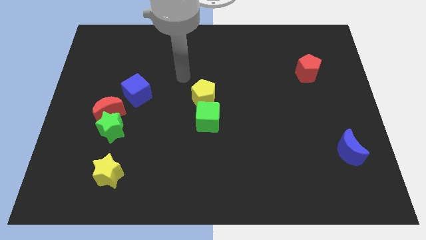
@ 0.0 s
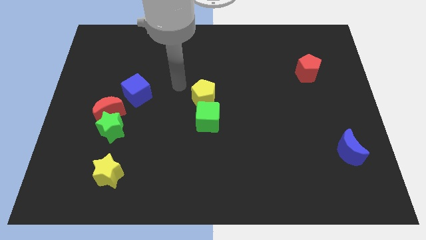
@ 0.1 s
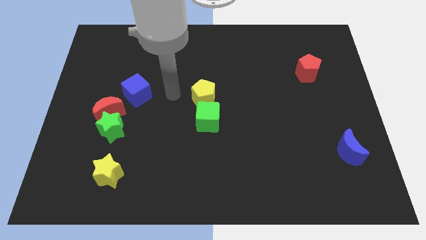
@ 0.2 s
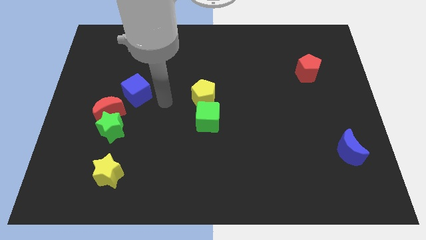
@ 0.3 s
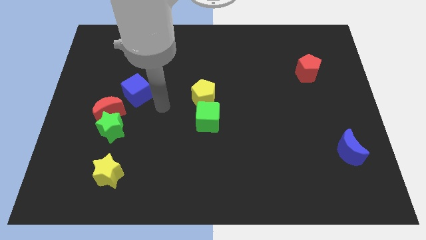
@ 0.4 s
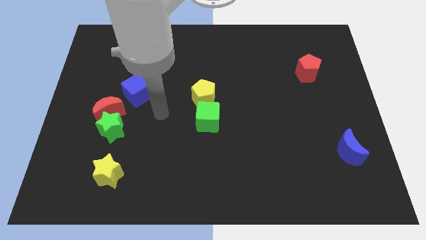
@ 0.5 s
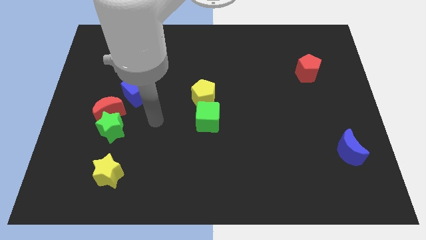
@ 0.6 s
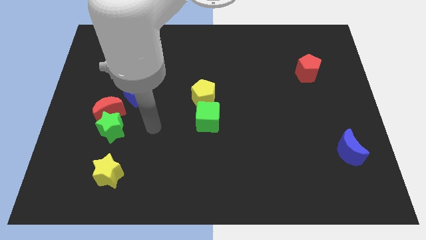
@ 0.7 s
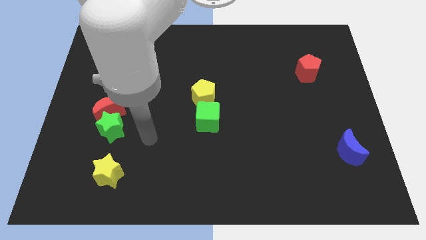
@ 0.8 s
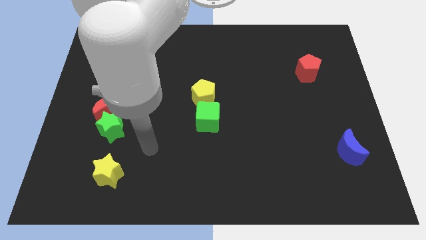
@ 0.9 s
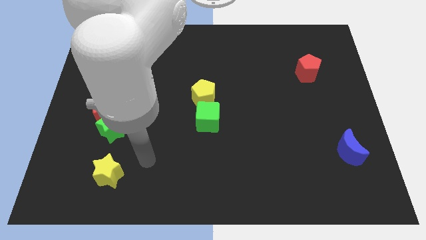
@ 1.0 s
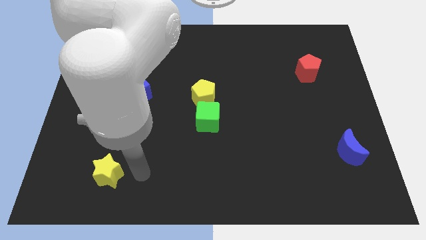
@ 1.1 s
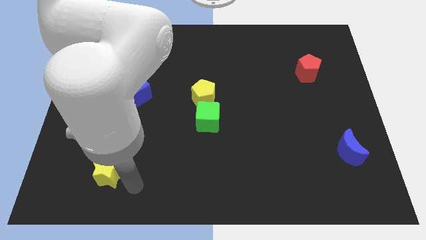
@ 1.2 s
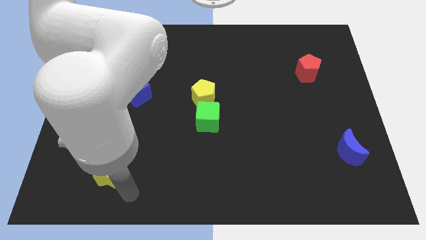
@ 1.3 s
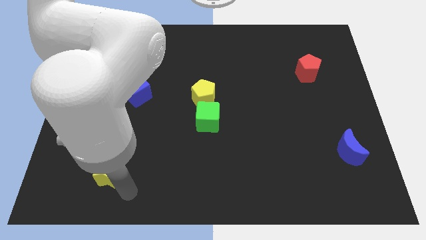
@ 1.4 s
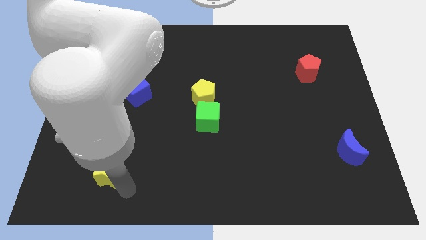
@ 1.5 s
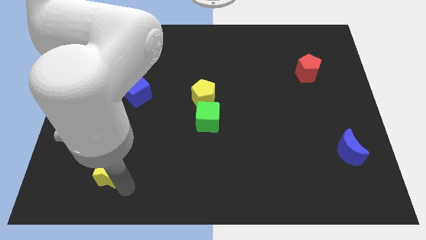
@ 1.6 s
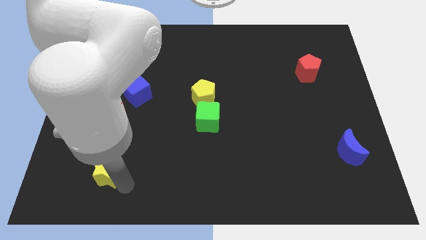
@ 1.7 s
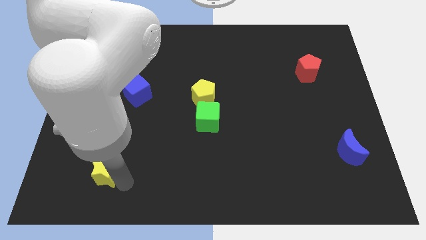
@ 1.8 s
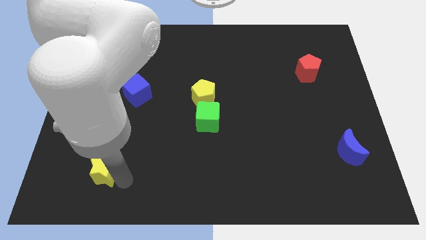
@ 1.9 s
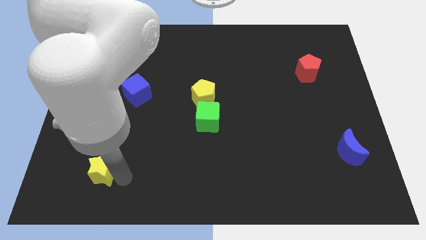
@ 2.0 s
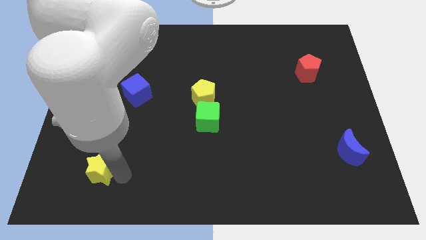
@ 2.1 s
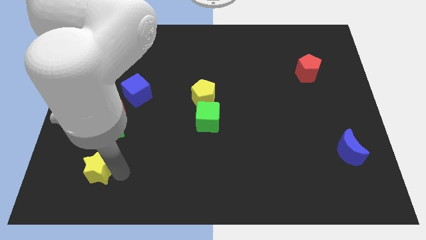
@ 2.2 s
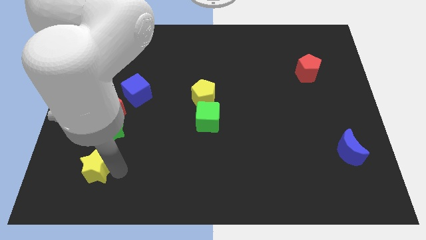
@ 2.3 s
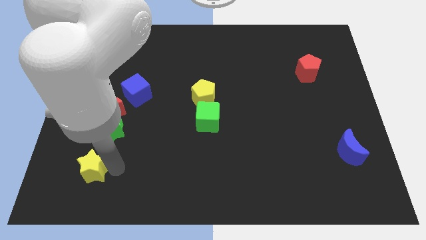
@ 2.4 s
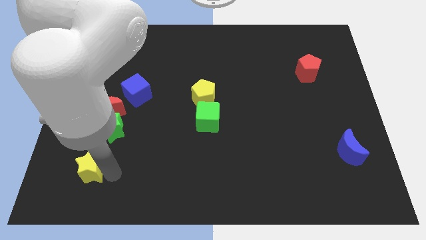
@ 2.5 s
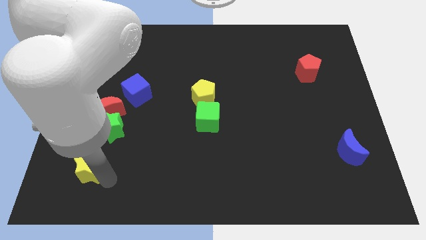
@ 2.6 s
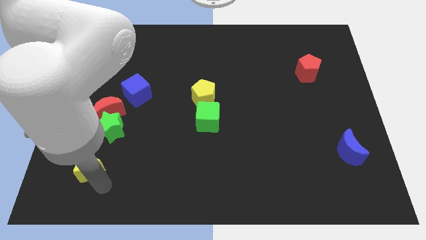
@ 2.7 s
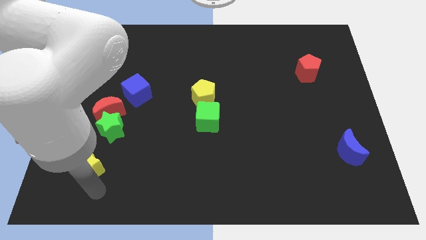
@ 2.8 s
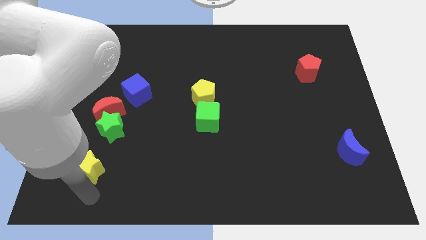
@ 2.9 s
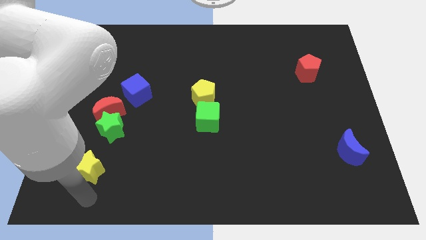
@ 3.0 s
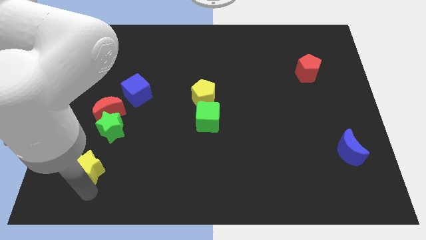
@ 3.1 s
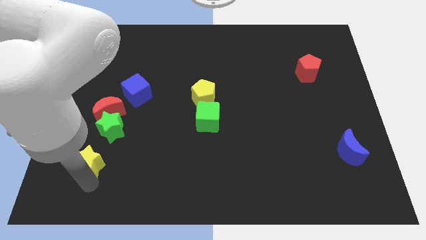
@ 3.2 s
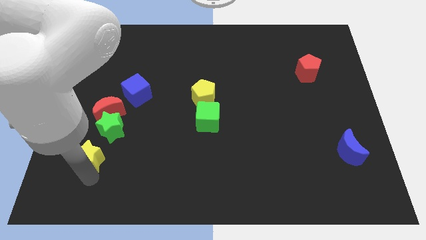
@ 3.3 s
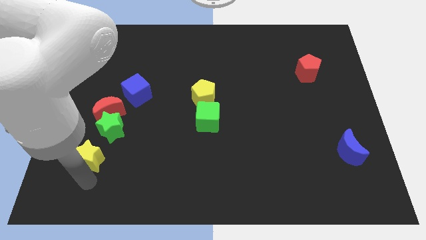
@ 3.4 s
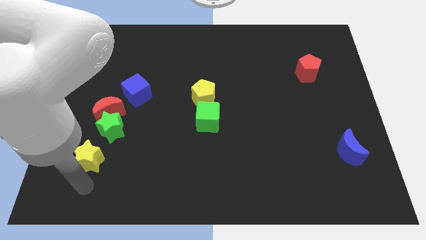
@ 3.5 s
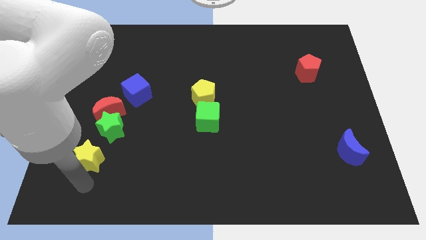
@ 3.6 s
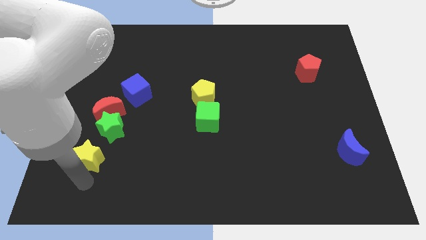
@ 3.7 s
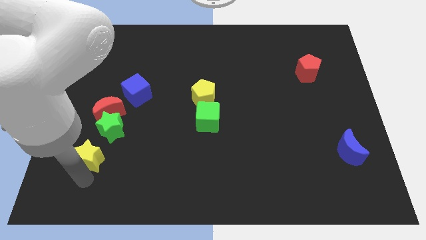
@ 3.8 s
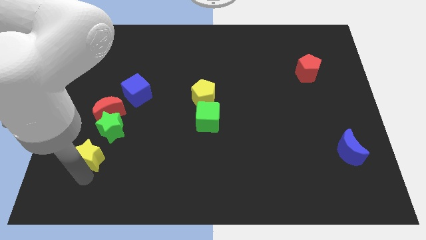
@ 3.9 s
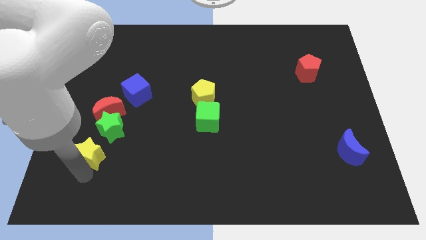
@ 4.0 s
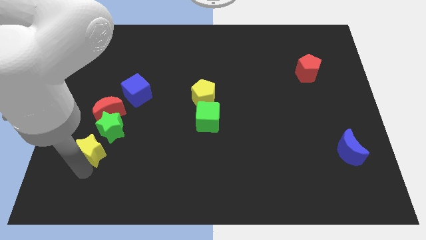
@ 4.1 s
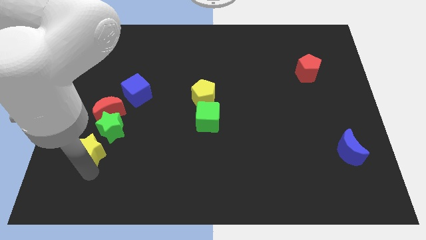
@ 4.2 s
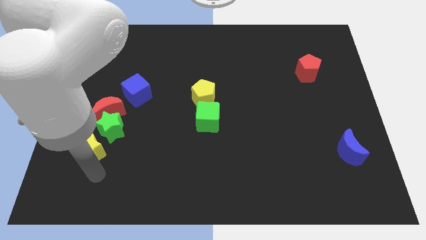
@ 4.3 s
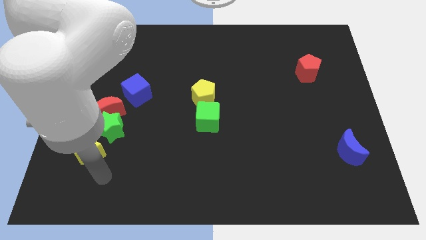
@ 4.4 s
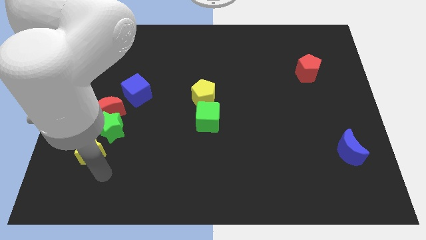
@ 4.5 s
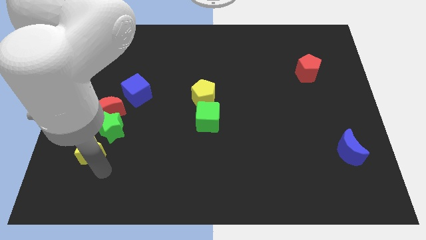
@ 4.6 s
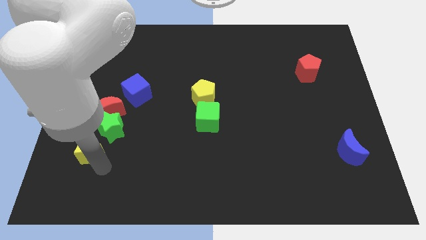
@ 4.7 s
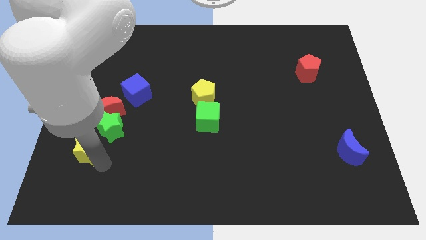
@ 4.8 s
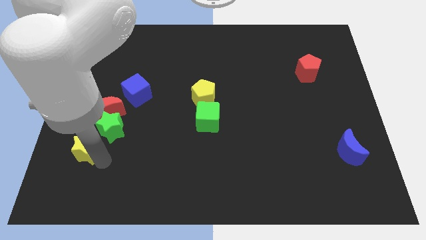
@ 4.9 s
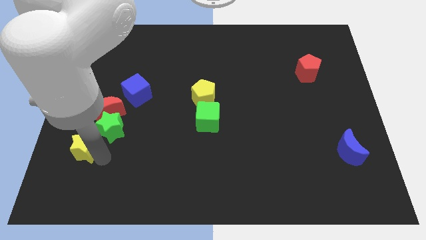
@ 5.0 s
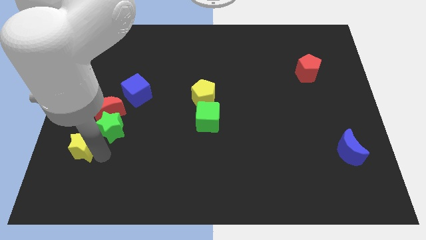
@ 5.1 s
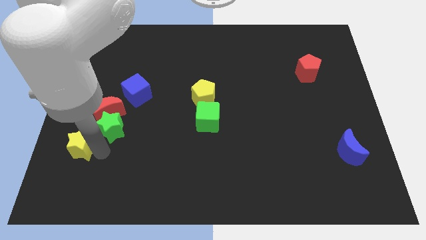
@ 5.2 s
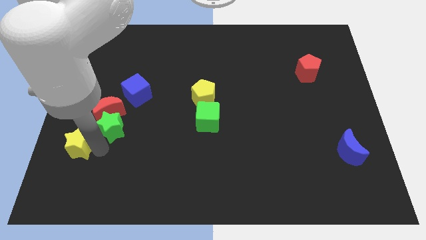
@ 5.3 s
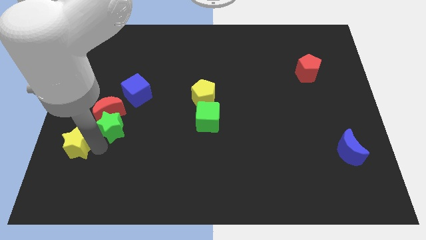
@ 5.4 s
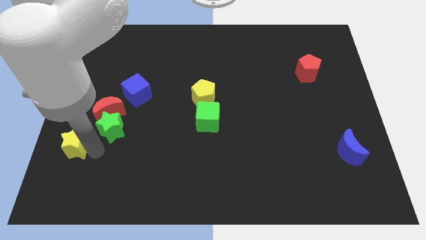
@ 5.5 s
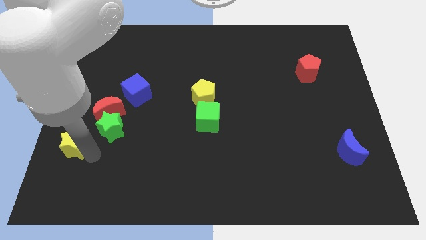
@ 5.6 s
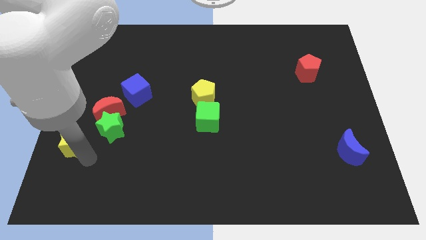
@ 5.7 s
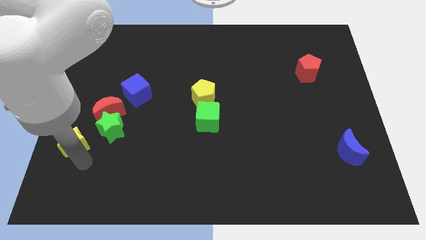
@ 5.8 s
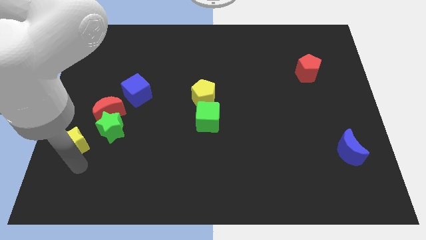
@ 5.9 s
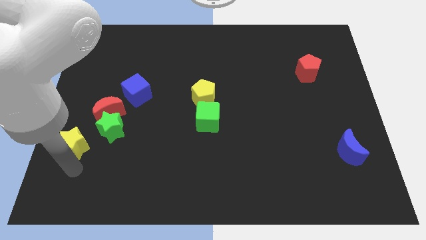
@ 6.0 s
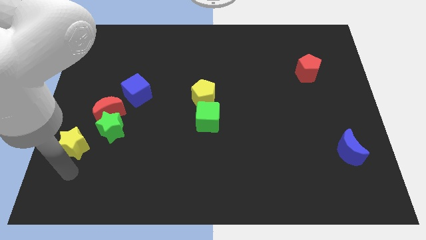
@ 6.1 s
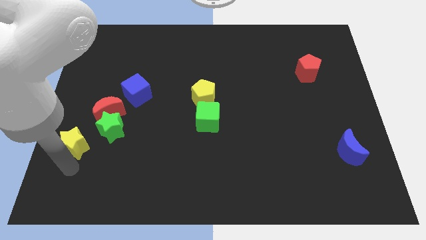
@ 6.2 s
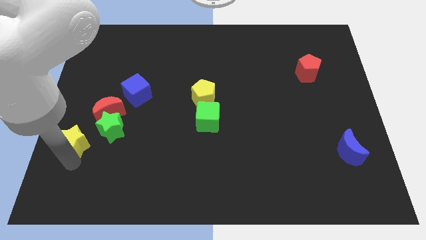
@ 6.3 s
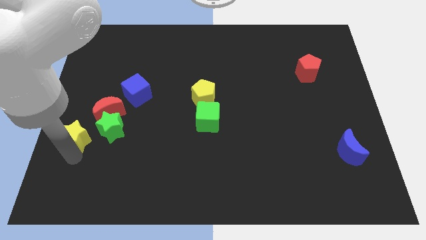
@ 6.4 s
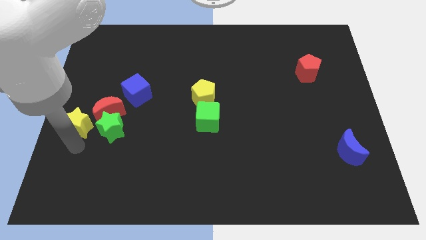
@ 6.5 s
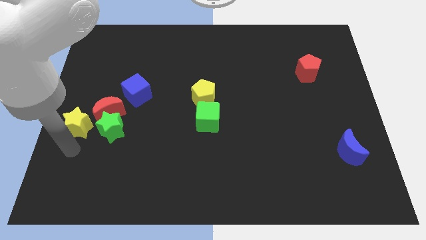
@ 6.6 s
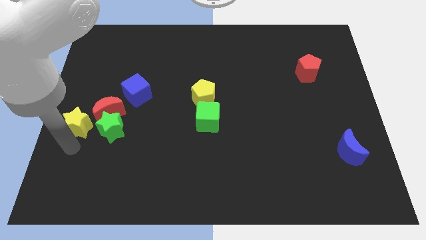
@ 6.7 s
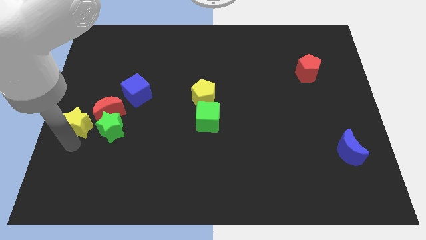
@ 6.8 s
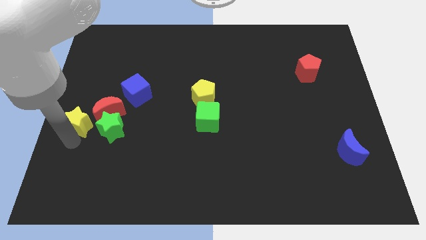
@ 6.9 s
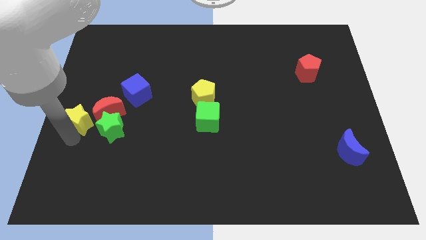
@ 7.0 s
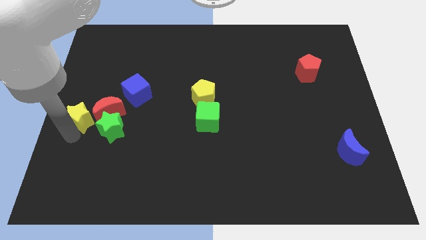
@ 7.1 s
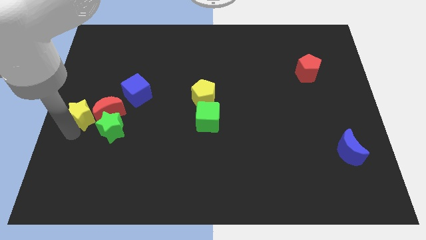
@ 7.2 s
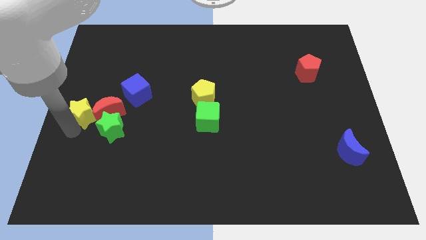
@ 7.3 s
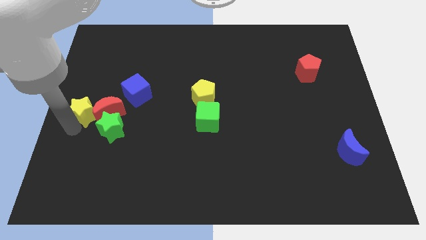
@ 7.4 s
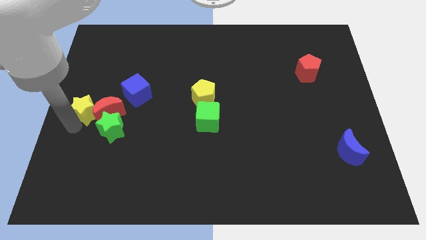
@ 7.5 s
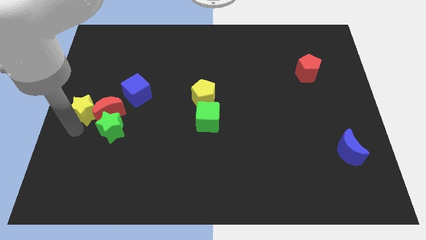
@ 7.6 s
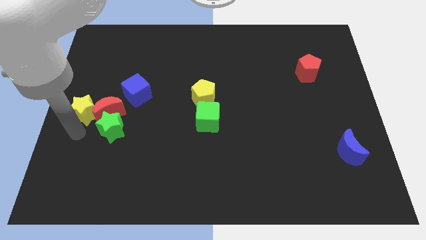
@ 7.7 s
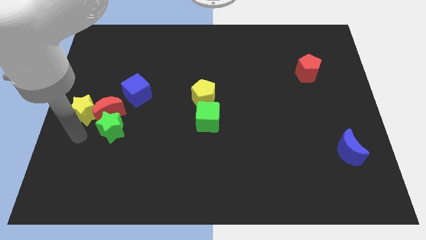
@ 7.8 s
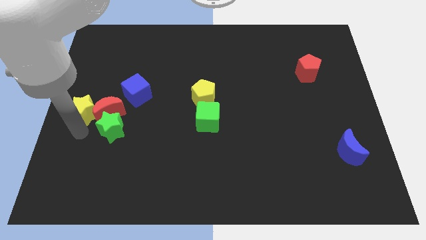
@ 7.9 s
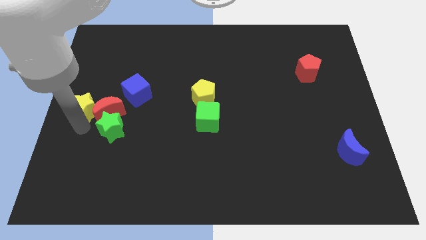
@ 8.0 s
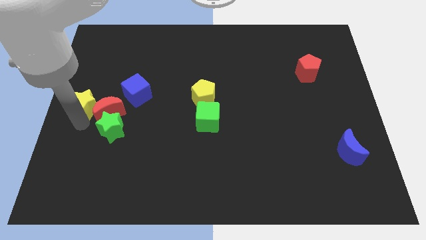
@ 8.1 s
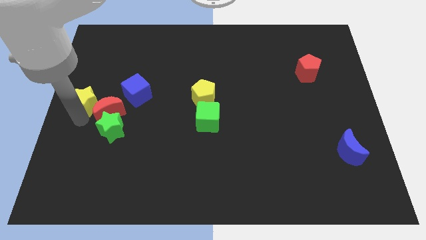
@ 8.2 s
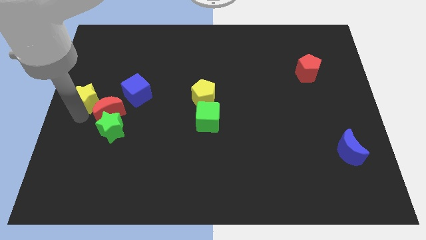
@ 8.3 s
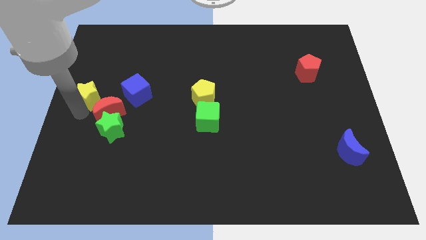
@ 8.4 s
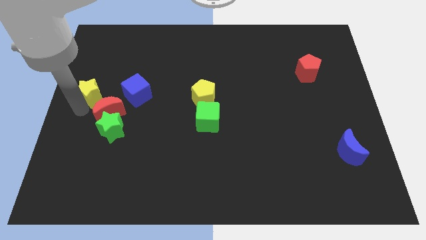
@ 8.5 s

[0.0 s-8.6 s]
move the yellow star to the top side of the red moon
